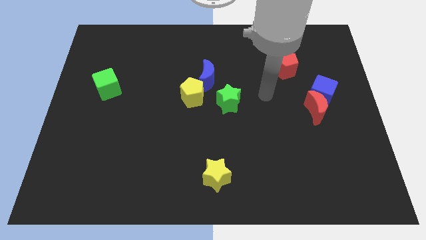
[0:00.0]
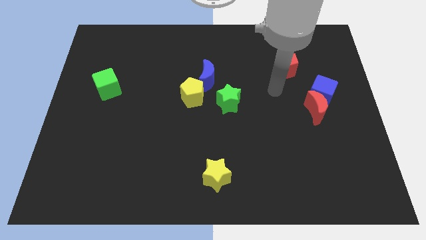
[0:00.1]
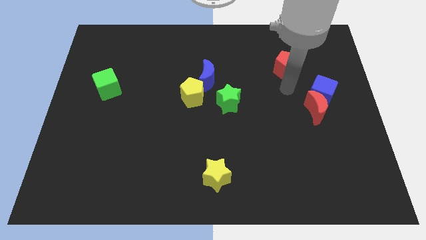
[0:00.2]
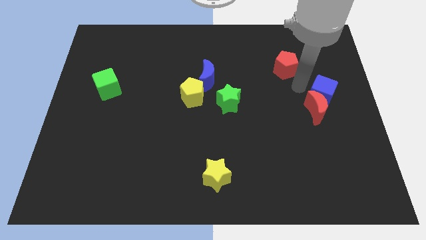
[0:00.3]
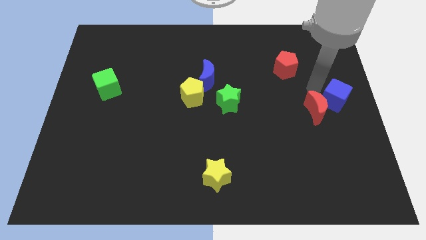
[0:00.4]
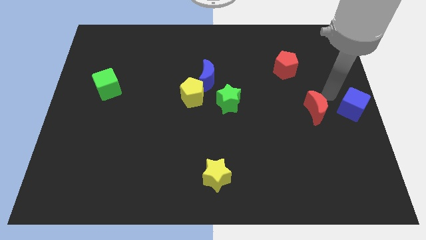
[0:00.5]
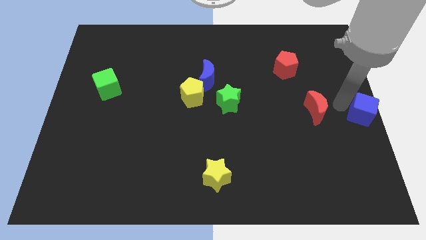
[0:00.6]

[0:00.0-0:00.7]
move the red moon away from the blue cube

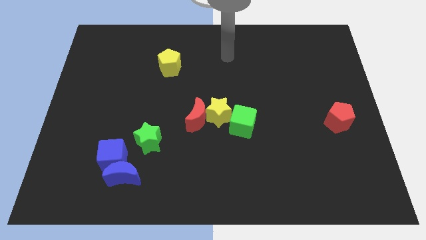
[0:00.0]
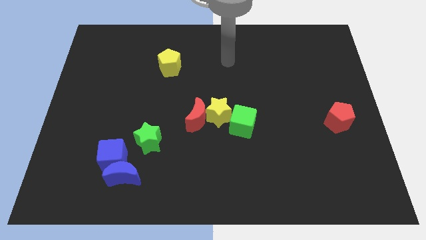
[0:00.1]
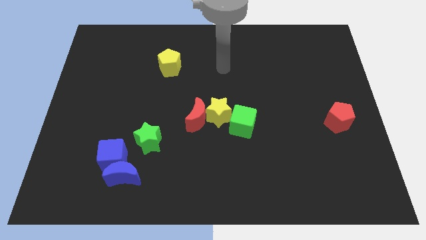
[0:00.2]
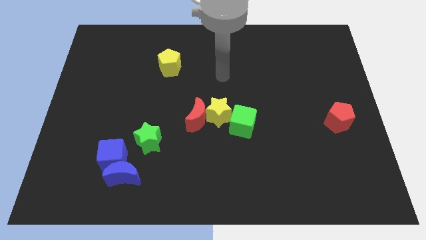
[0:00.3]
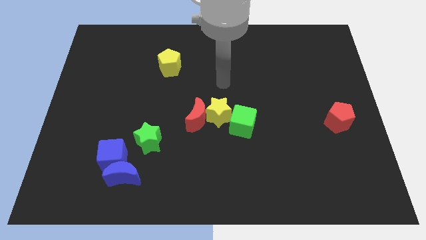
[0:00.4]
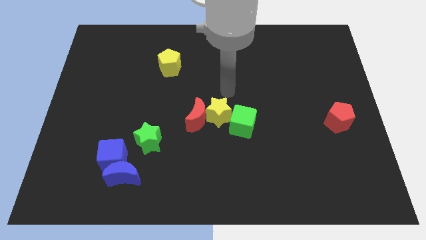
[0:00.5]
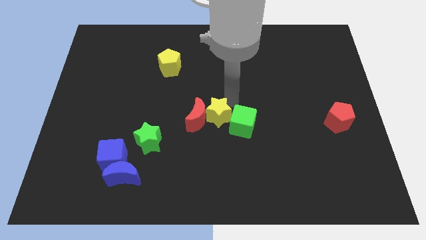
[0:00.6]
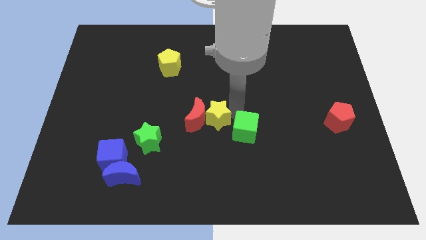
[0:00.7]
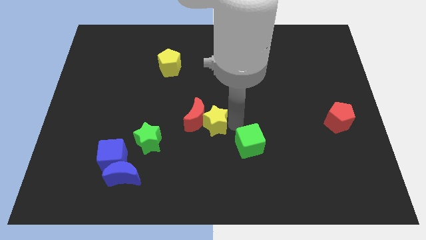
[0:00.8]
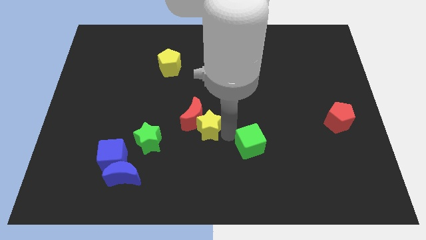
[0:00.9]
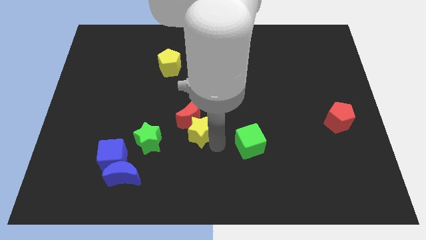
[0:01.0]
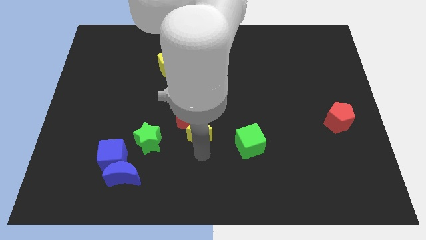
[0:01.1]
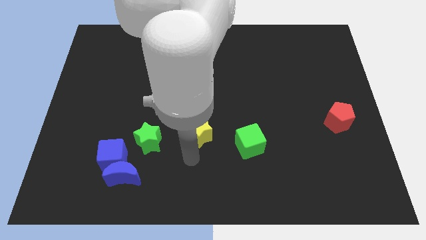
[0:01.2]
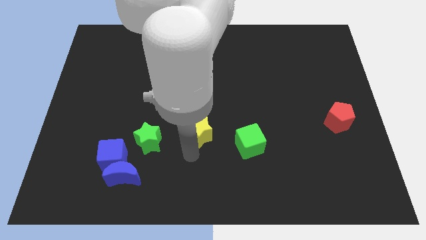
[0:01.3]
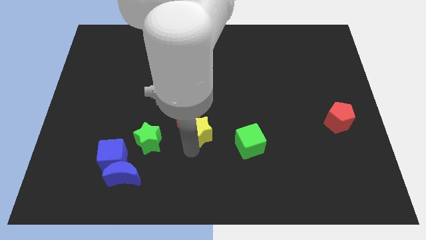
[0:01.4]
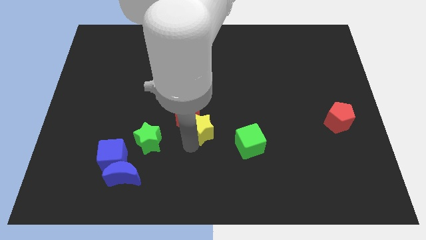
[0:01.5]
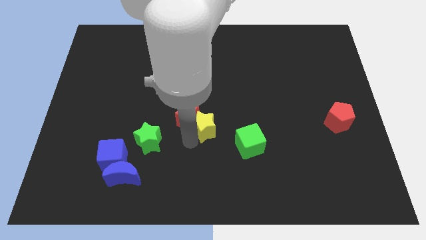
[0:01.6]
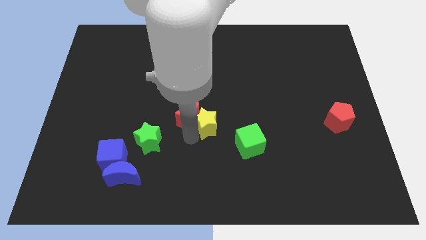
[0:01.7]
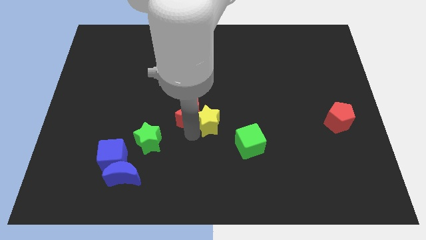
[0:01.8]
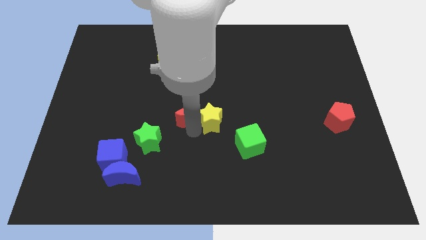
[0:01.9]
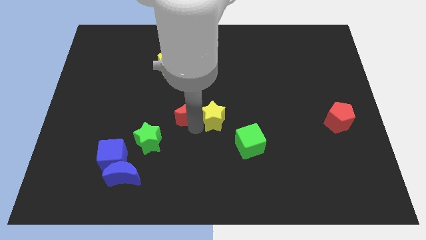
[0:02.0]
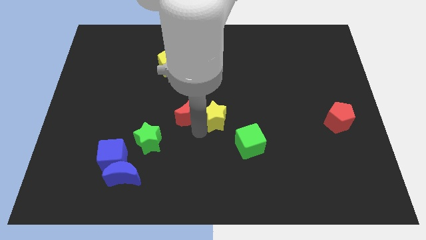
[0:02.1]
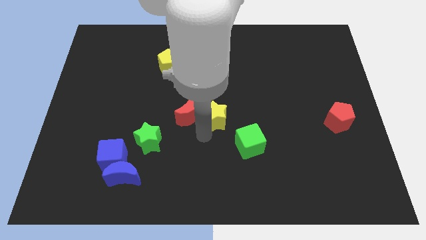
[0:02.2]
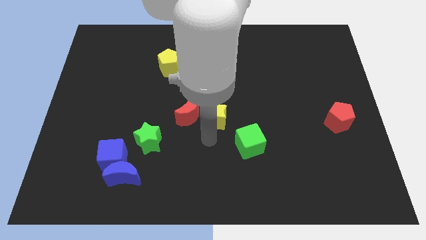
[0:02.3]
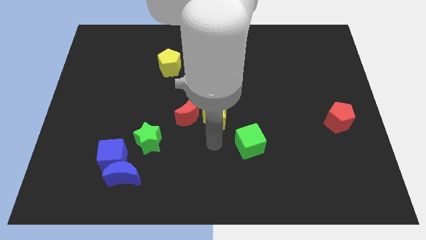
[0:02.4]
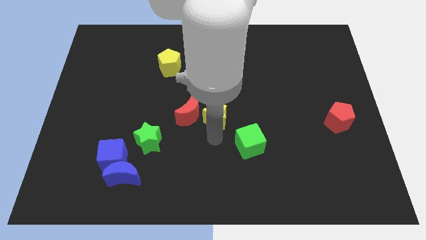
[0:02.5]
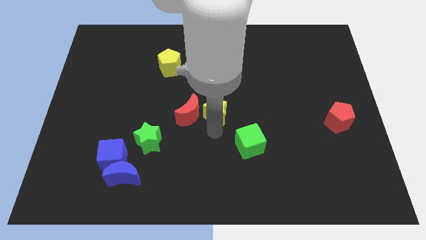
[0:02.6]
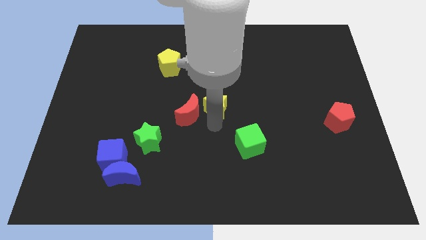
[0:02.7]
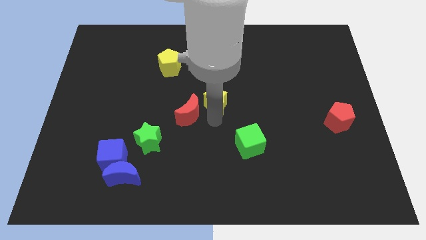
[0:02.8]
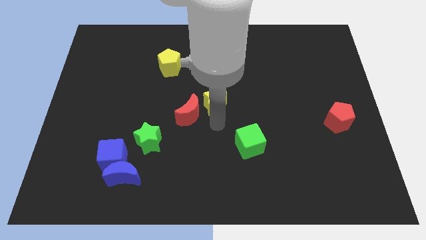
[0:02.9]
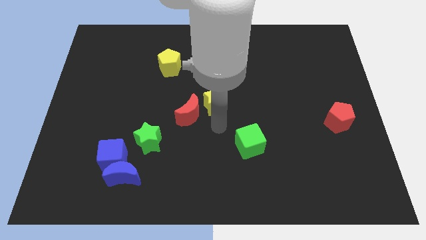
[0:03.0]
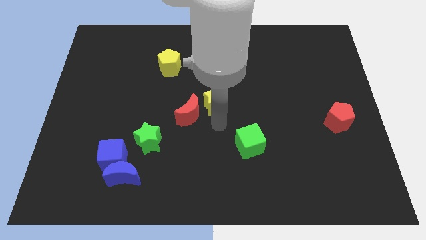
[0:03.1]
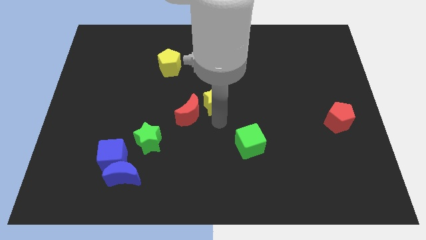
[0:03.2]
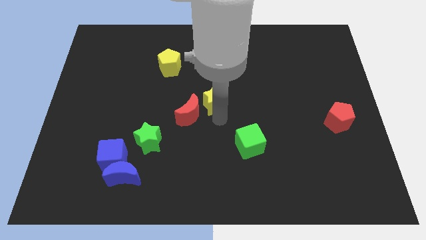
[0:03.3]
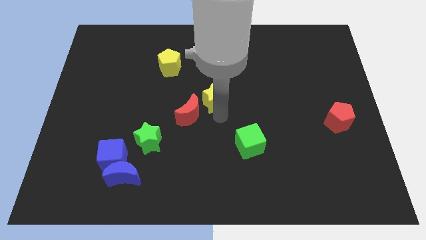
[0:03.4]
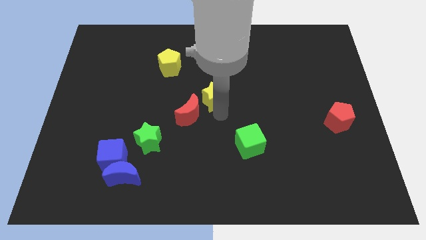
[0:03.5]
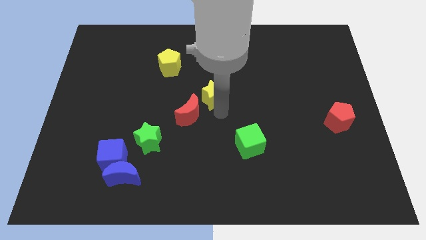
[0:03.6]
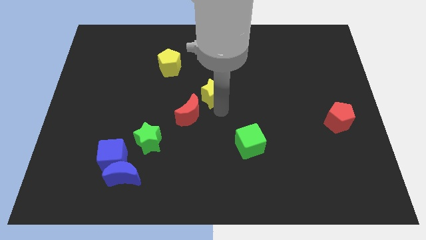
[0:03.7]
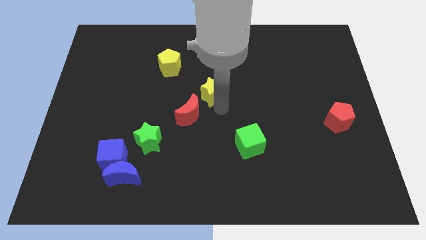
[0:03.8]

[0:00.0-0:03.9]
pull the yellow star apart from the red moon and green cube

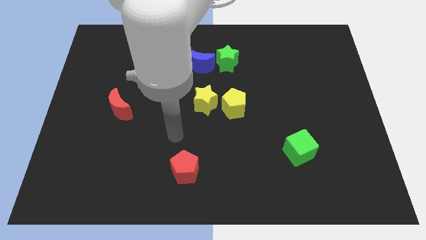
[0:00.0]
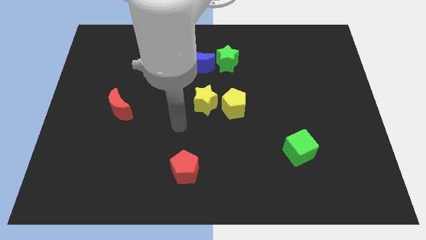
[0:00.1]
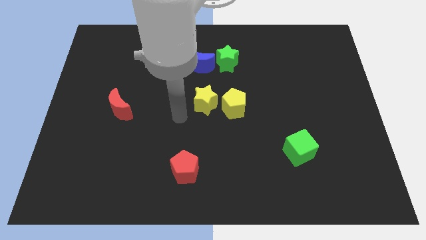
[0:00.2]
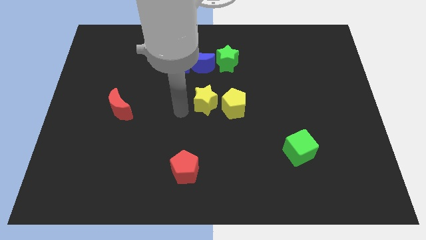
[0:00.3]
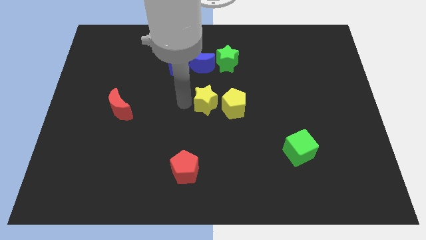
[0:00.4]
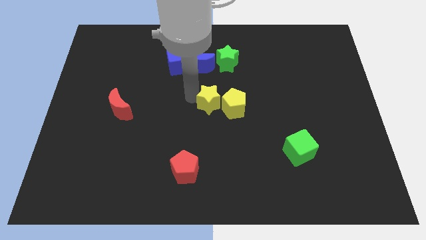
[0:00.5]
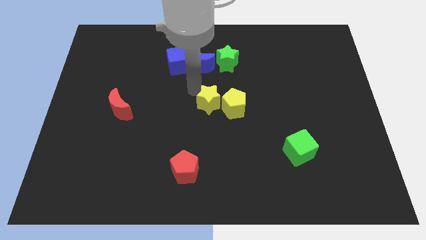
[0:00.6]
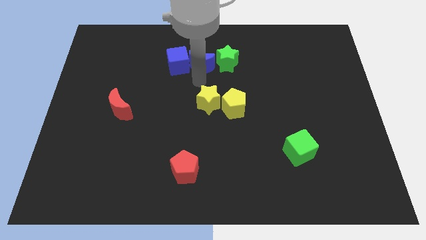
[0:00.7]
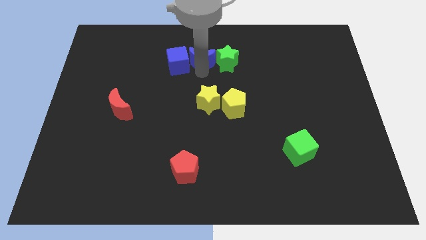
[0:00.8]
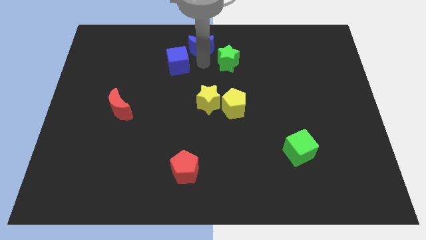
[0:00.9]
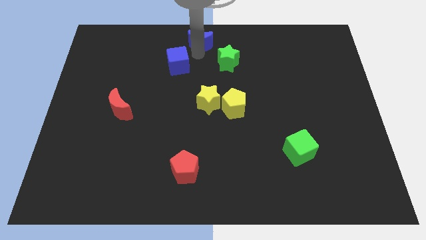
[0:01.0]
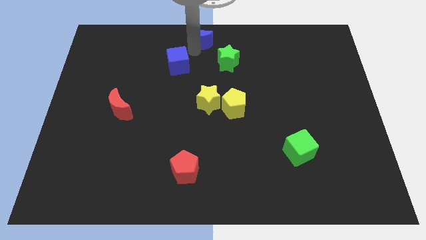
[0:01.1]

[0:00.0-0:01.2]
pull the blue cube apart from the blue moon

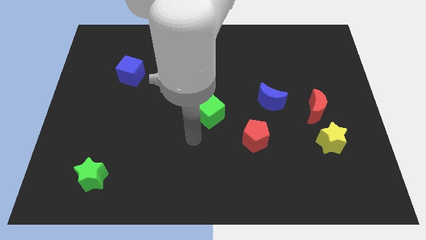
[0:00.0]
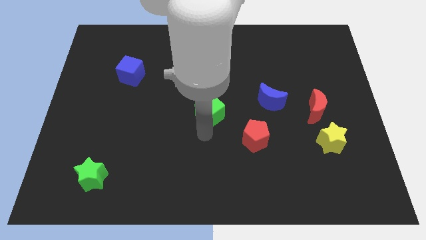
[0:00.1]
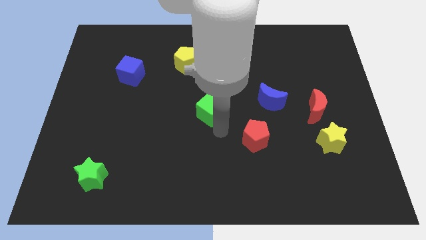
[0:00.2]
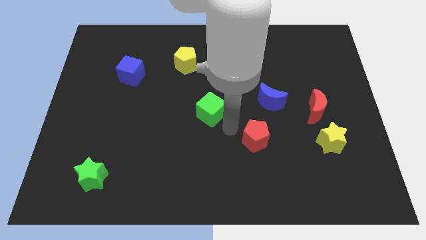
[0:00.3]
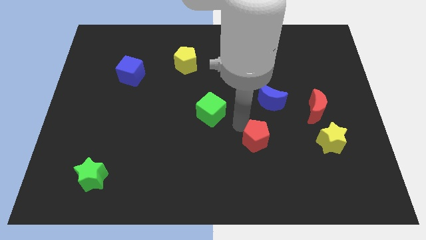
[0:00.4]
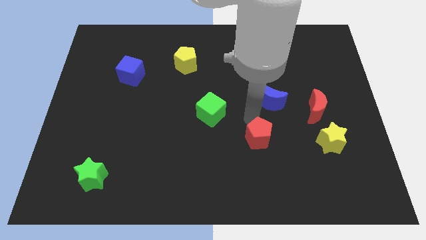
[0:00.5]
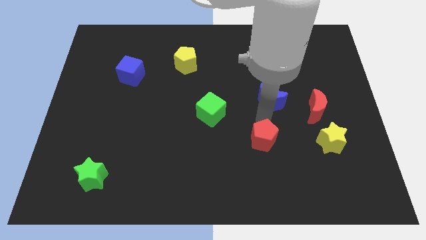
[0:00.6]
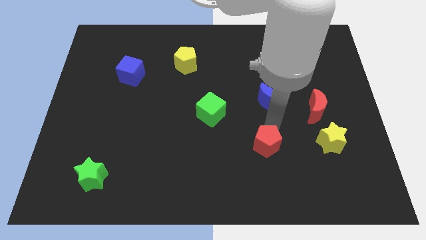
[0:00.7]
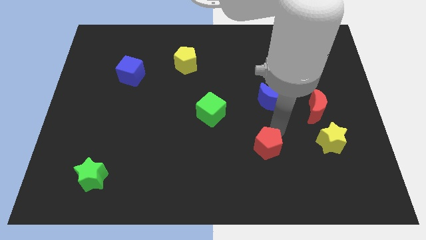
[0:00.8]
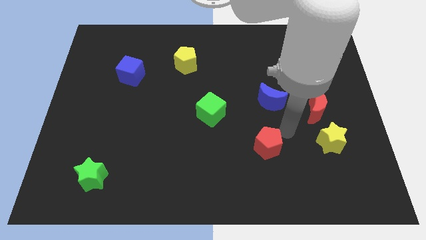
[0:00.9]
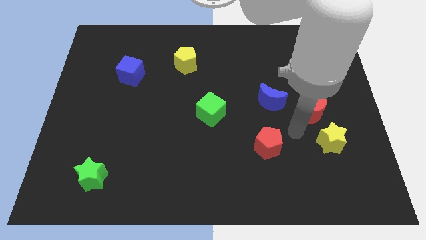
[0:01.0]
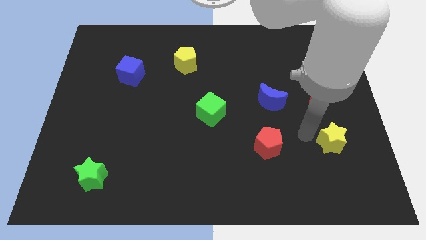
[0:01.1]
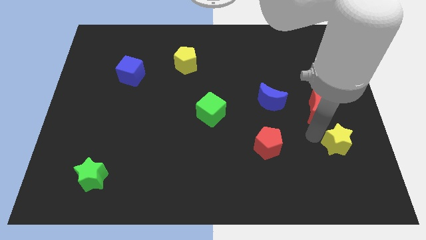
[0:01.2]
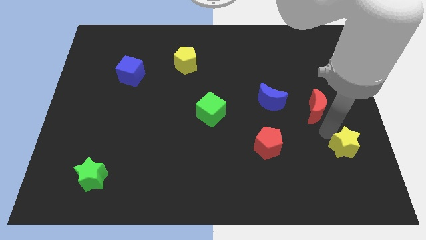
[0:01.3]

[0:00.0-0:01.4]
pull the red moon apart from the yellow star

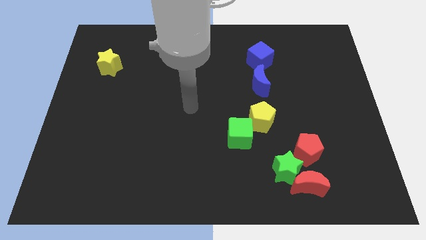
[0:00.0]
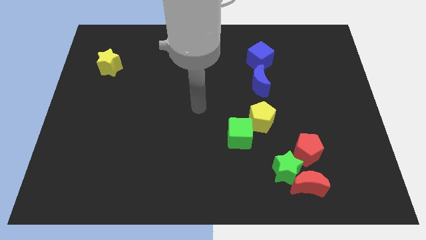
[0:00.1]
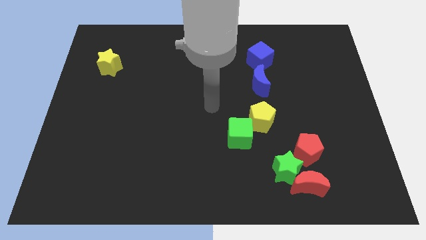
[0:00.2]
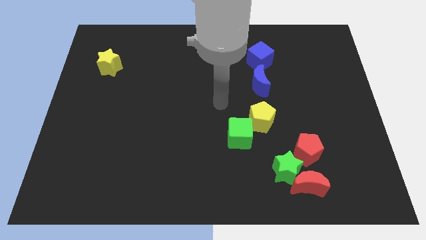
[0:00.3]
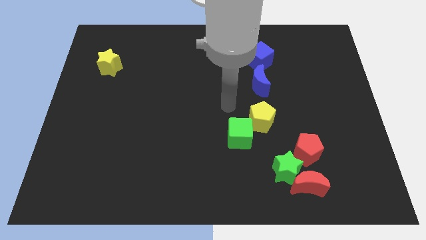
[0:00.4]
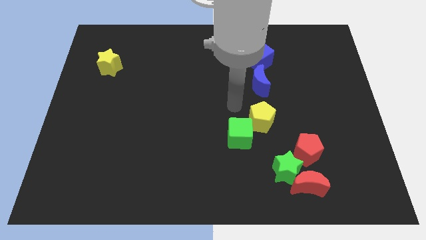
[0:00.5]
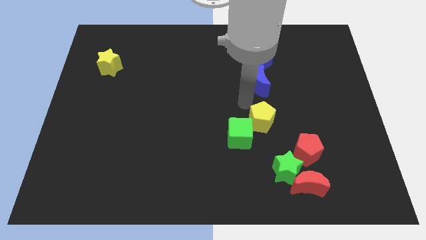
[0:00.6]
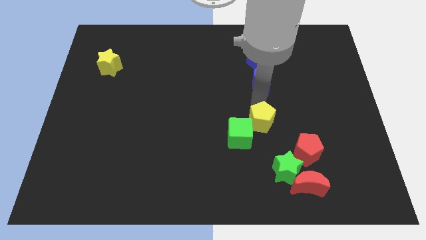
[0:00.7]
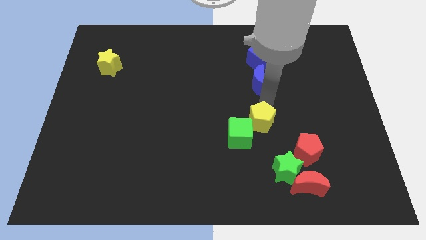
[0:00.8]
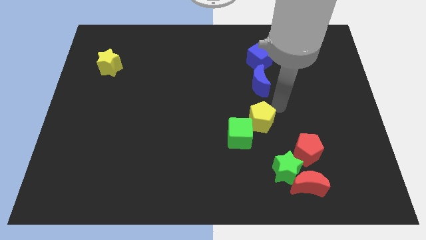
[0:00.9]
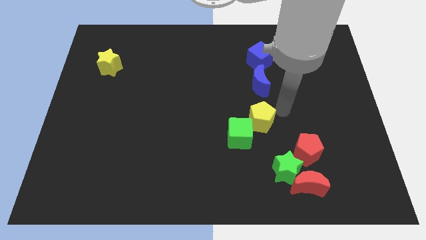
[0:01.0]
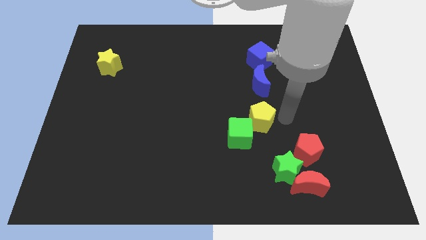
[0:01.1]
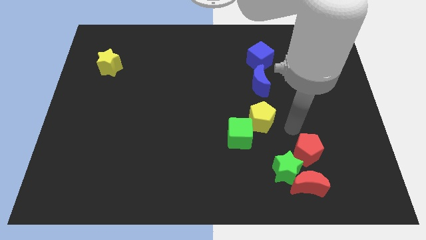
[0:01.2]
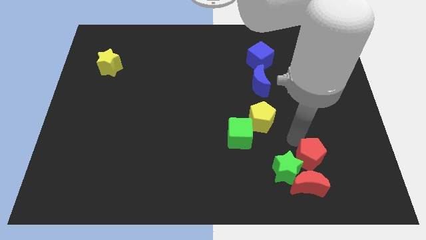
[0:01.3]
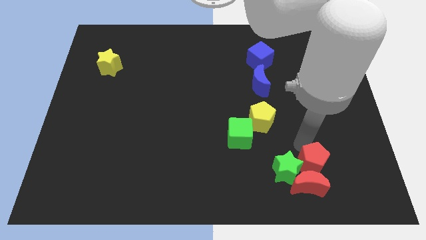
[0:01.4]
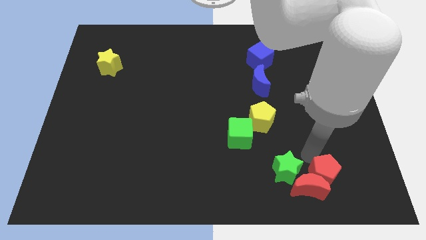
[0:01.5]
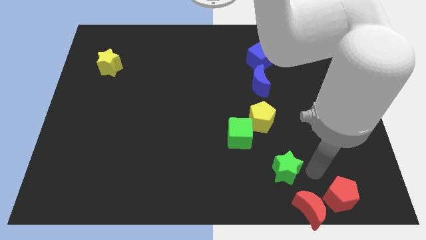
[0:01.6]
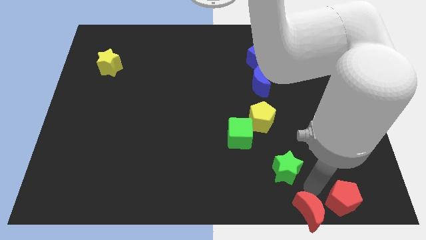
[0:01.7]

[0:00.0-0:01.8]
separate the green star from the red moon and red pentagon
